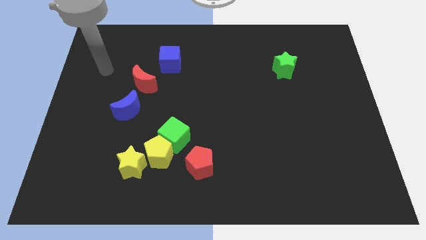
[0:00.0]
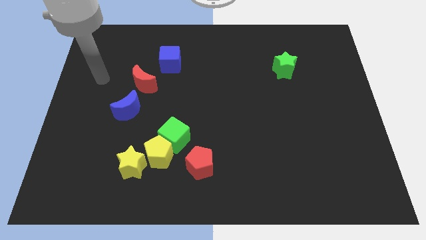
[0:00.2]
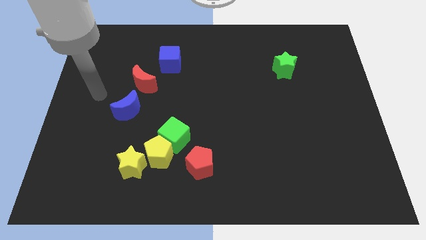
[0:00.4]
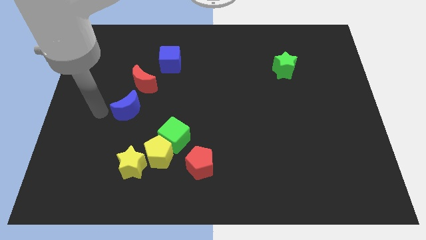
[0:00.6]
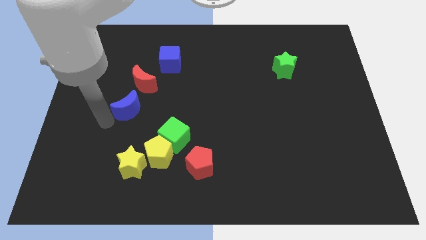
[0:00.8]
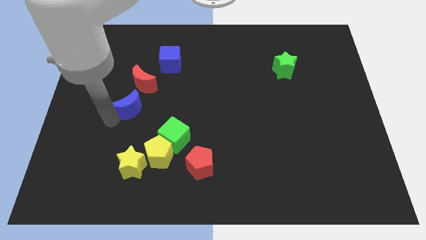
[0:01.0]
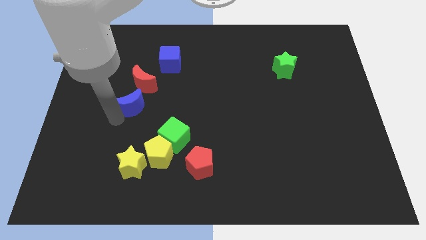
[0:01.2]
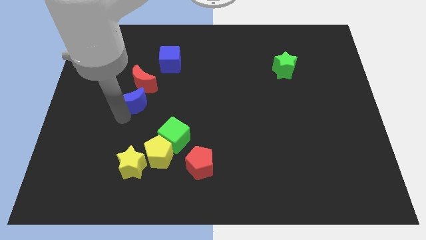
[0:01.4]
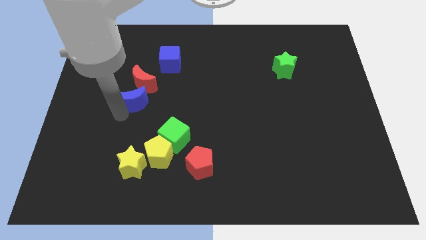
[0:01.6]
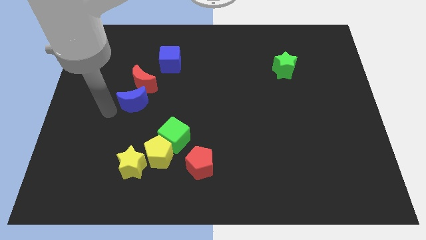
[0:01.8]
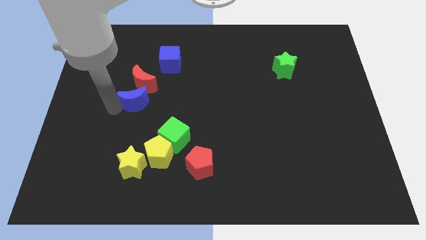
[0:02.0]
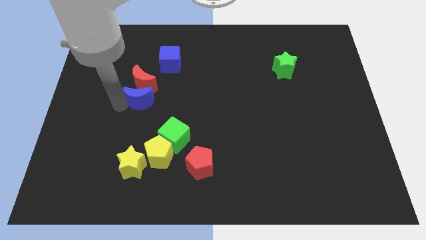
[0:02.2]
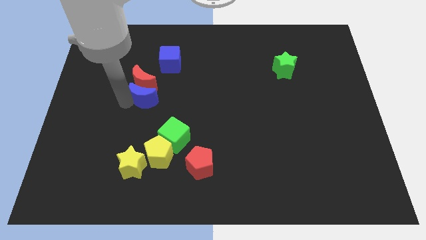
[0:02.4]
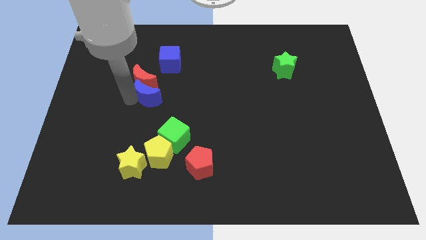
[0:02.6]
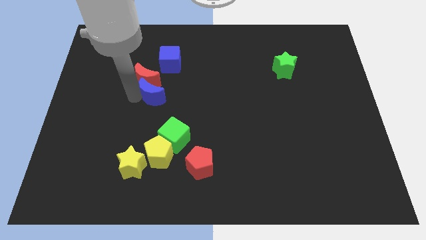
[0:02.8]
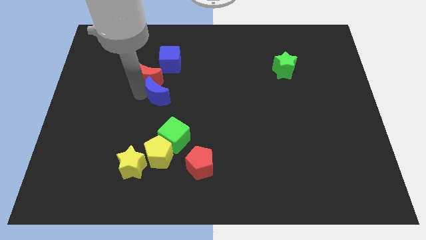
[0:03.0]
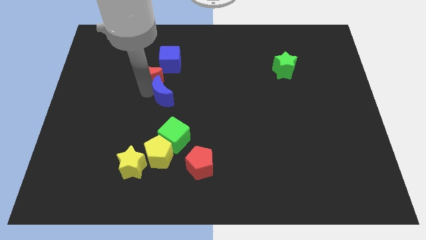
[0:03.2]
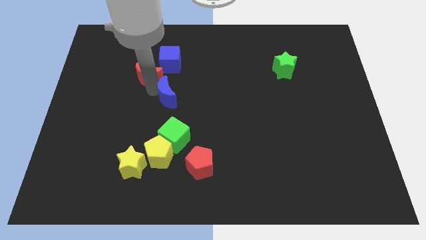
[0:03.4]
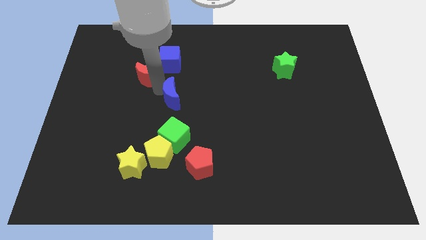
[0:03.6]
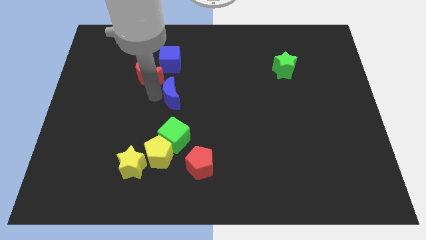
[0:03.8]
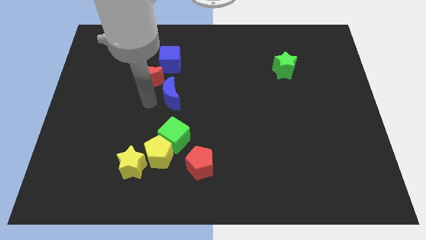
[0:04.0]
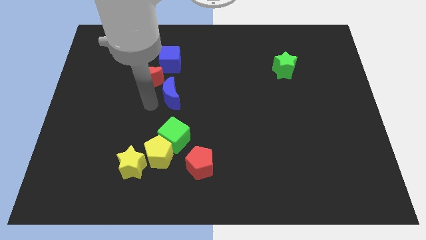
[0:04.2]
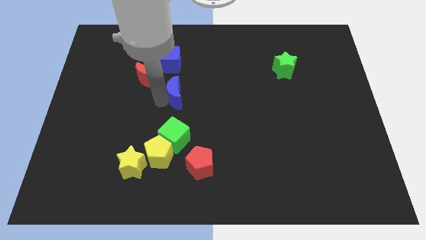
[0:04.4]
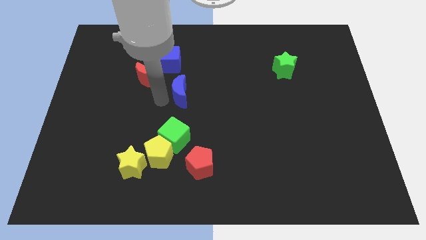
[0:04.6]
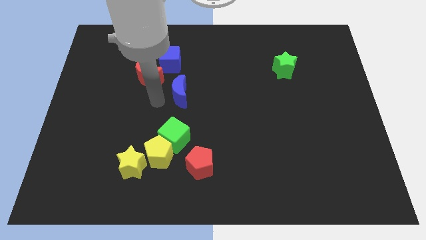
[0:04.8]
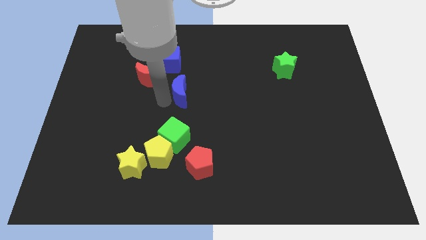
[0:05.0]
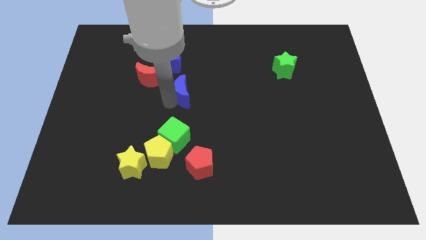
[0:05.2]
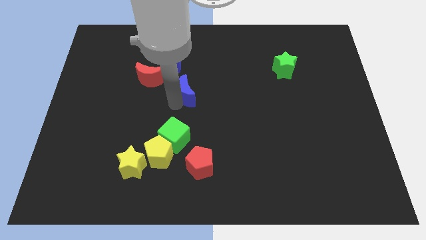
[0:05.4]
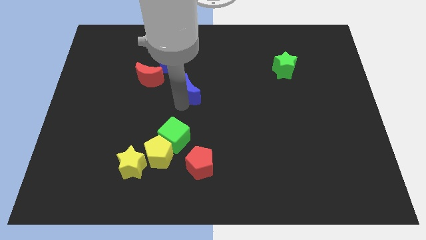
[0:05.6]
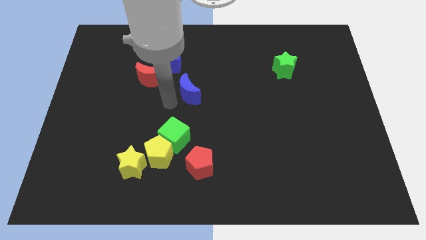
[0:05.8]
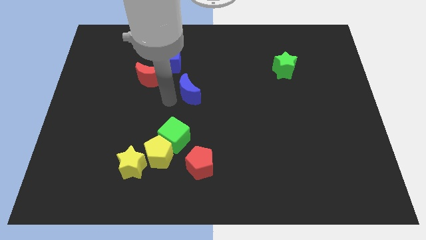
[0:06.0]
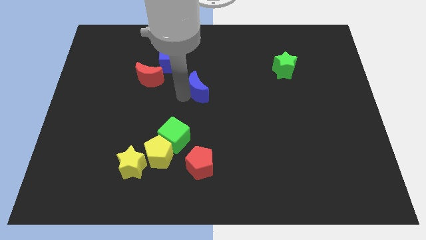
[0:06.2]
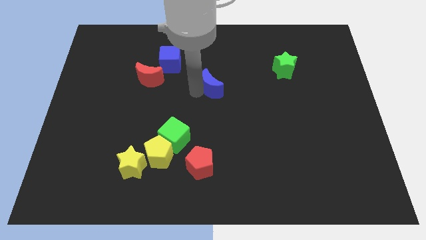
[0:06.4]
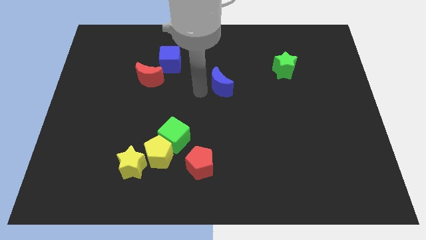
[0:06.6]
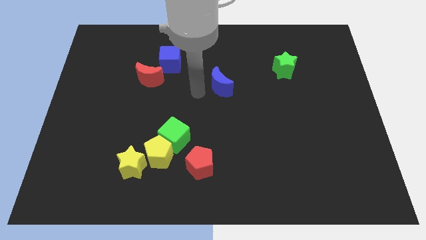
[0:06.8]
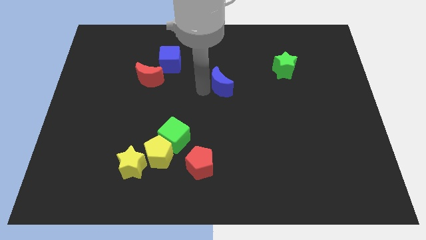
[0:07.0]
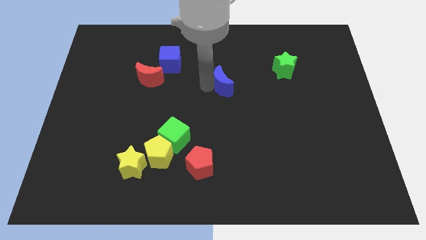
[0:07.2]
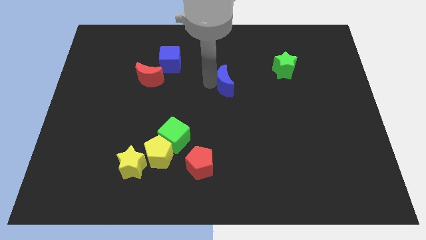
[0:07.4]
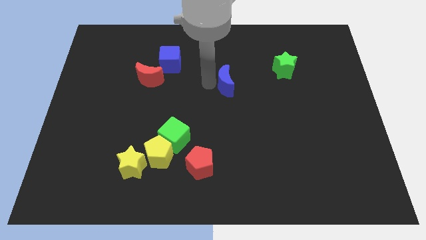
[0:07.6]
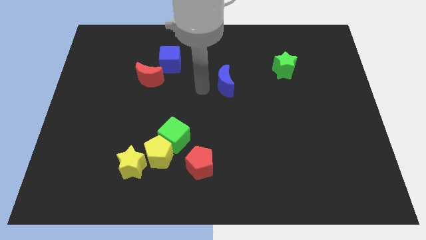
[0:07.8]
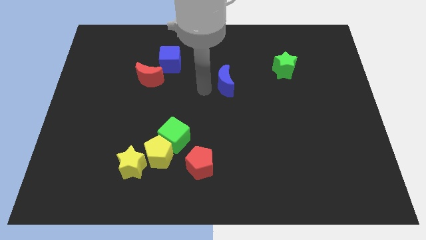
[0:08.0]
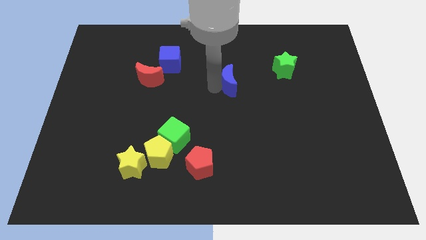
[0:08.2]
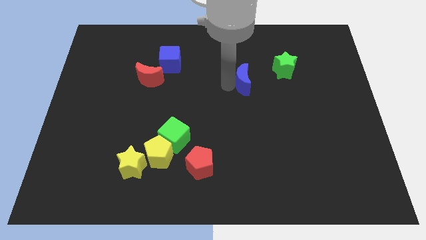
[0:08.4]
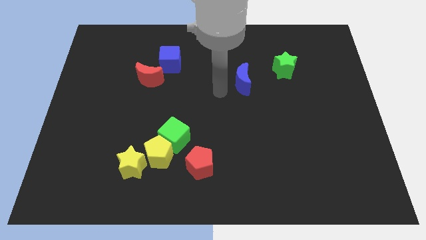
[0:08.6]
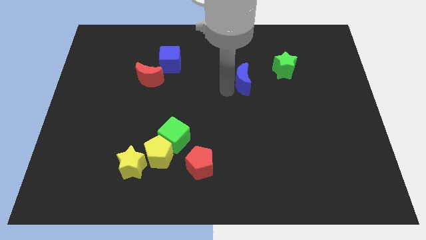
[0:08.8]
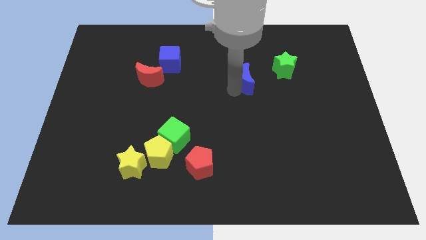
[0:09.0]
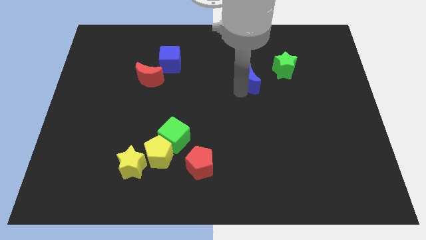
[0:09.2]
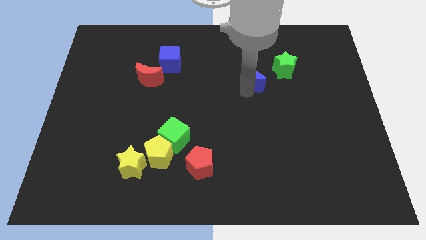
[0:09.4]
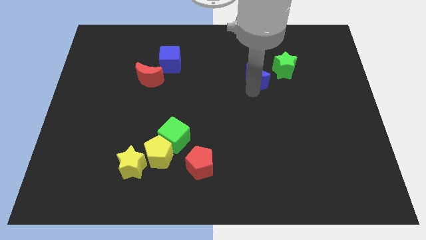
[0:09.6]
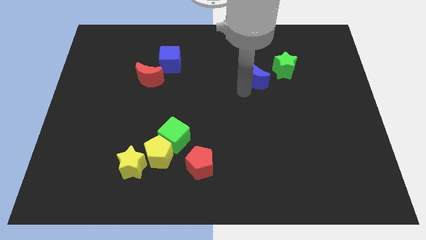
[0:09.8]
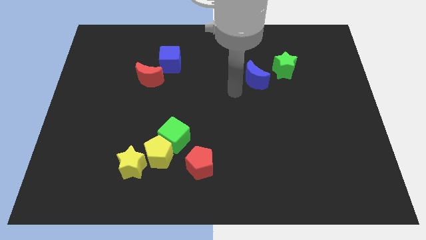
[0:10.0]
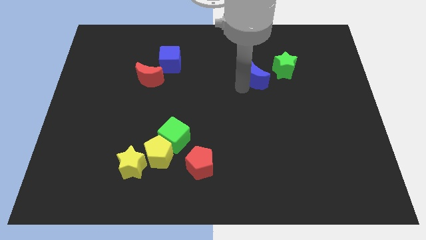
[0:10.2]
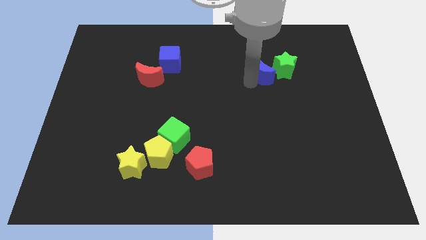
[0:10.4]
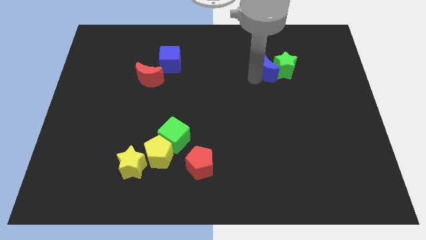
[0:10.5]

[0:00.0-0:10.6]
put the blue moon next to the green star

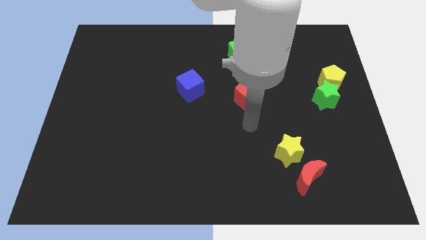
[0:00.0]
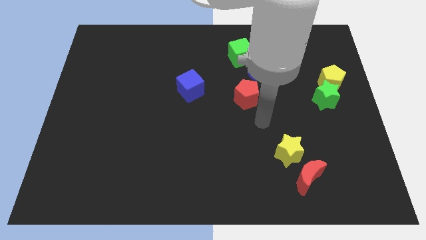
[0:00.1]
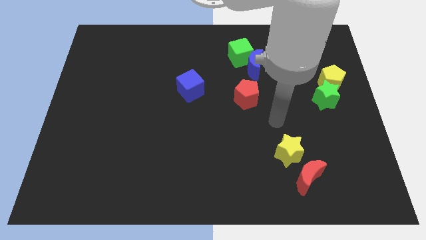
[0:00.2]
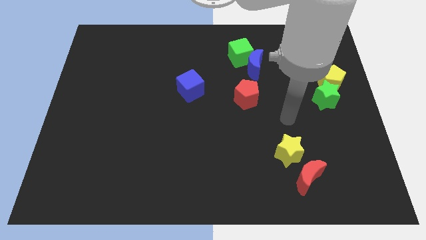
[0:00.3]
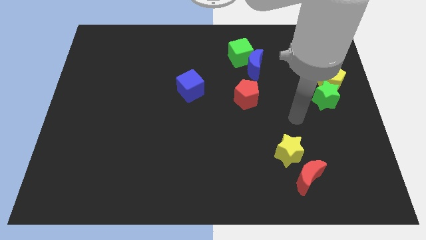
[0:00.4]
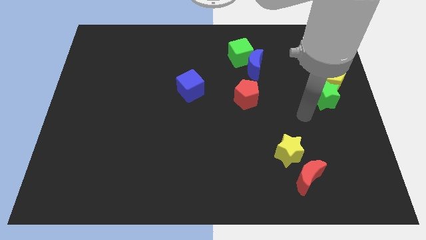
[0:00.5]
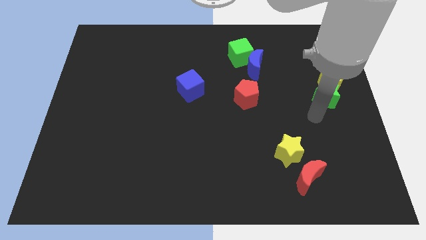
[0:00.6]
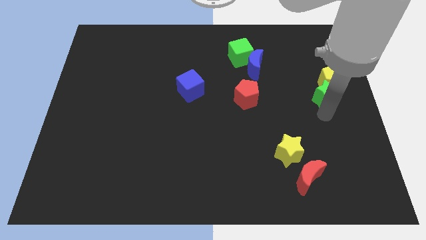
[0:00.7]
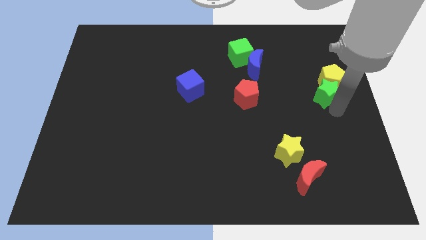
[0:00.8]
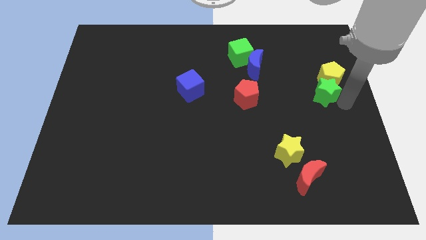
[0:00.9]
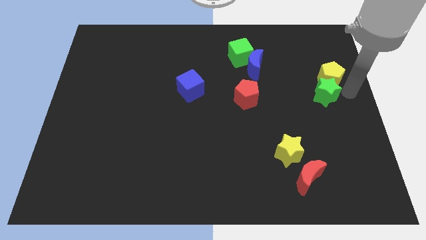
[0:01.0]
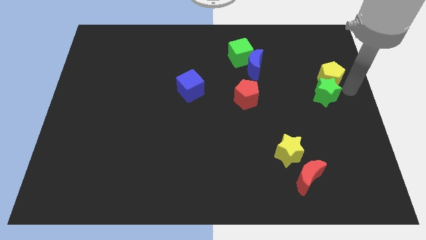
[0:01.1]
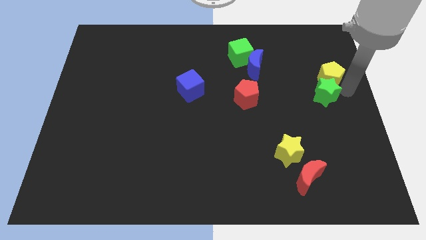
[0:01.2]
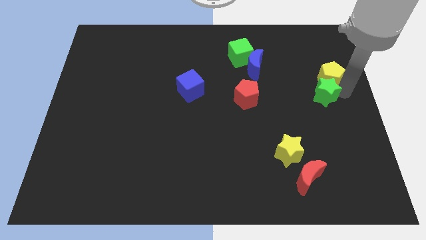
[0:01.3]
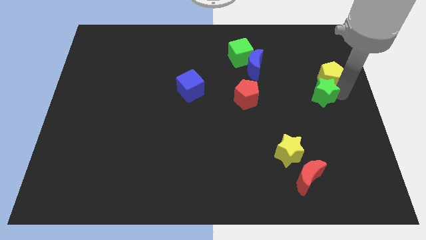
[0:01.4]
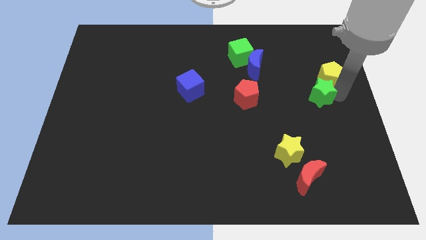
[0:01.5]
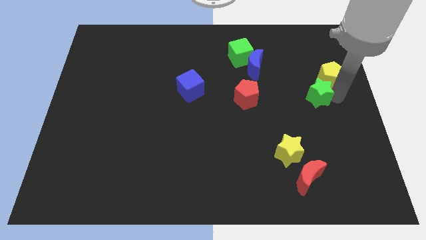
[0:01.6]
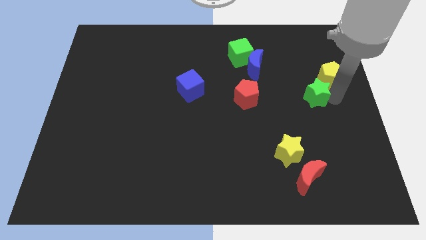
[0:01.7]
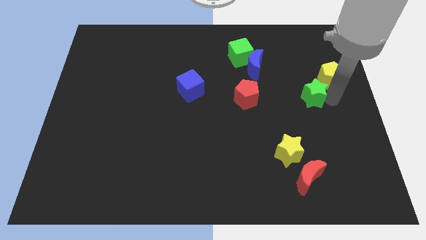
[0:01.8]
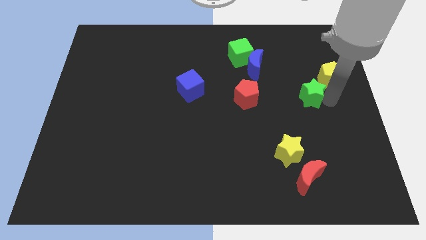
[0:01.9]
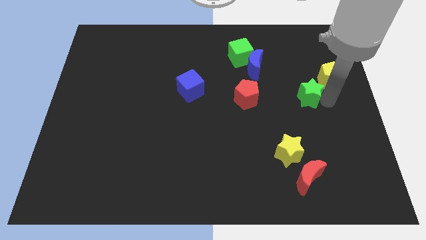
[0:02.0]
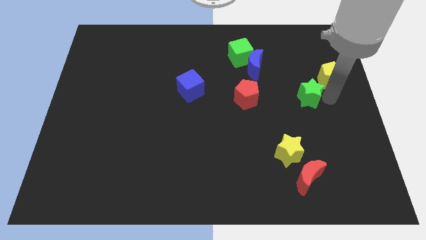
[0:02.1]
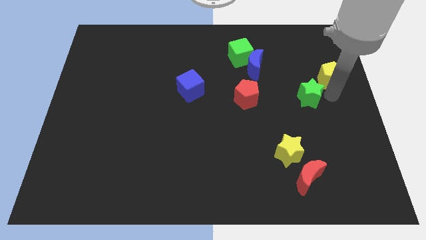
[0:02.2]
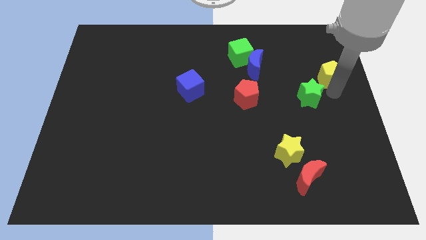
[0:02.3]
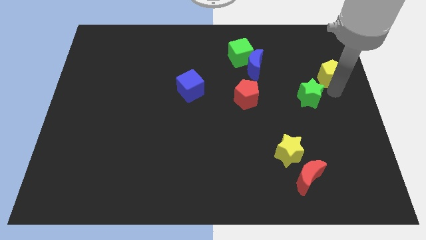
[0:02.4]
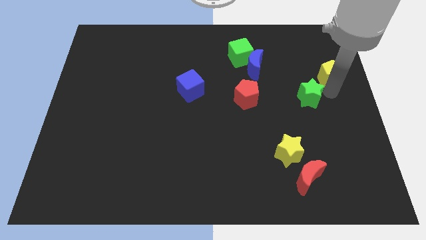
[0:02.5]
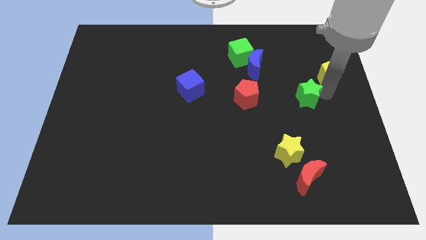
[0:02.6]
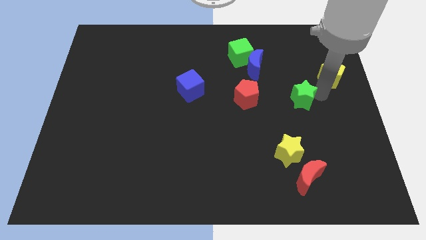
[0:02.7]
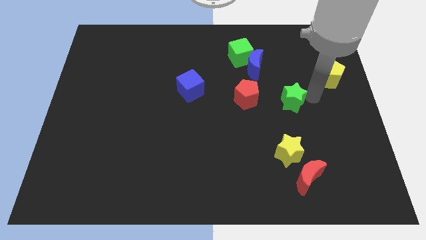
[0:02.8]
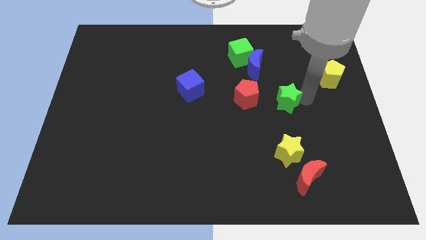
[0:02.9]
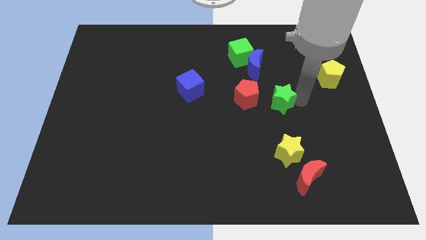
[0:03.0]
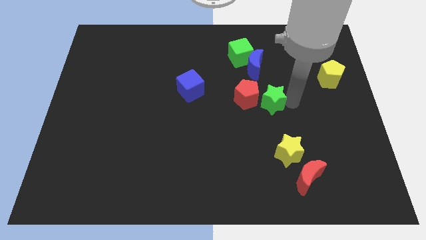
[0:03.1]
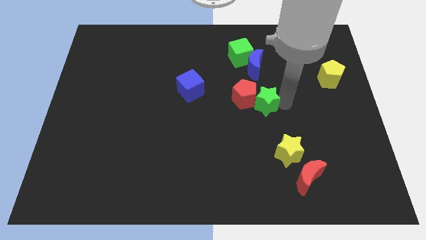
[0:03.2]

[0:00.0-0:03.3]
move the green star next to the red pentagon
